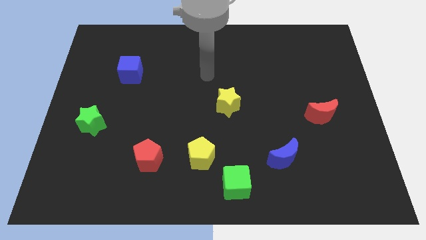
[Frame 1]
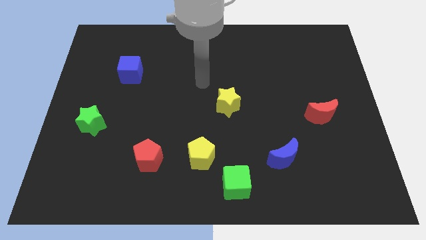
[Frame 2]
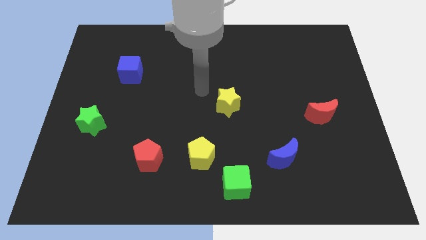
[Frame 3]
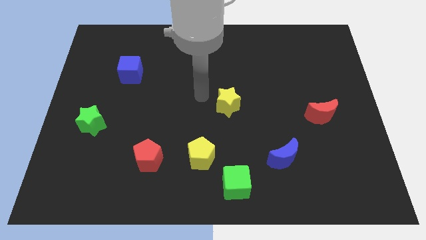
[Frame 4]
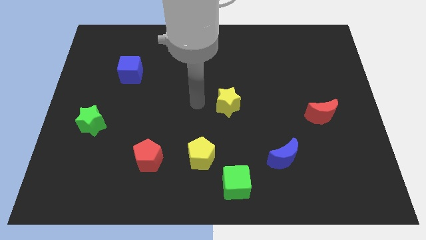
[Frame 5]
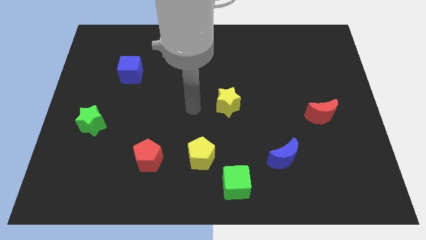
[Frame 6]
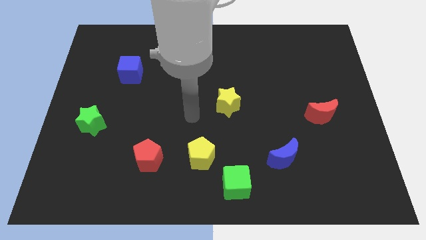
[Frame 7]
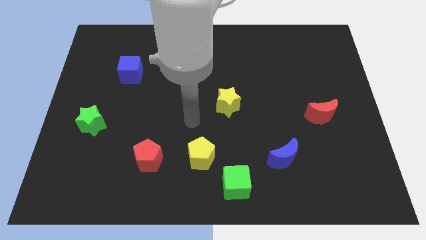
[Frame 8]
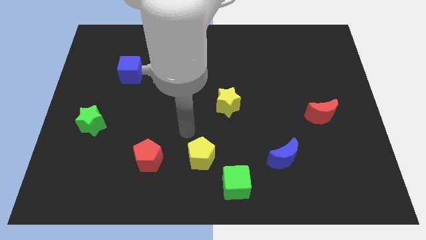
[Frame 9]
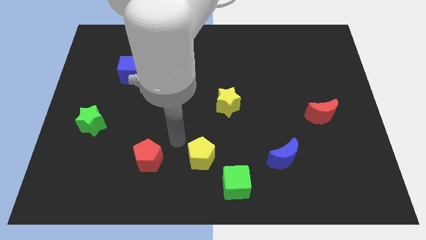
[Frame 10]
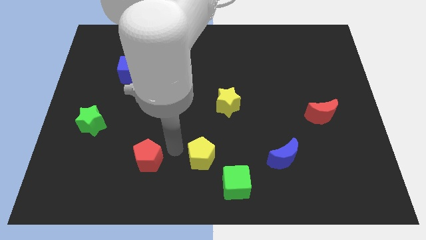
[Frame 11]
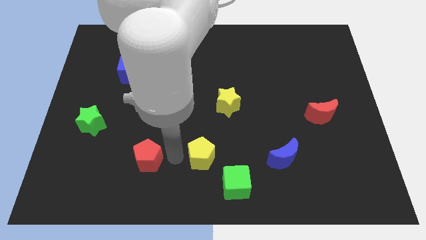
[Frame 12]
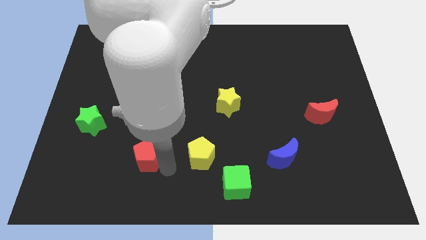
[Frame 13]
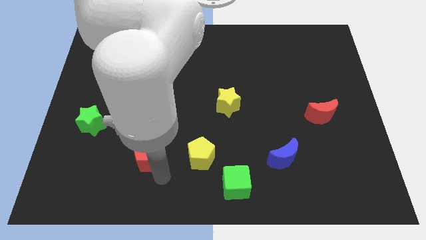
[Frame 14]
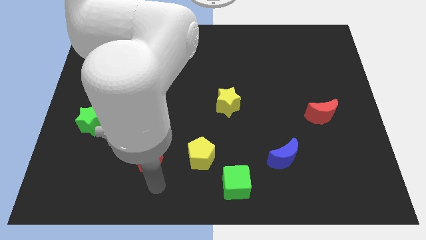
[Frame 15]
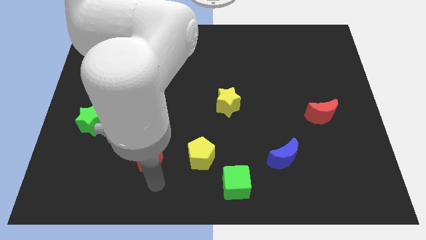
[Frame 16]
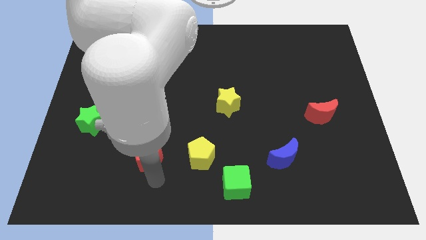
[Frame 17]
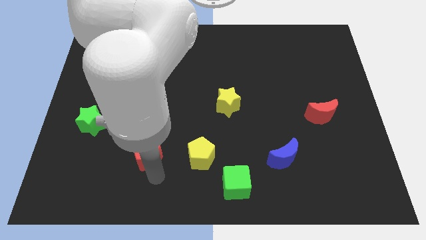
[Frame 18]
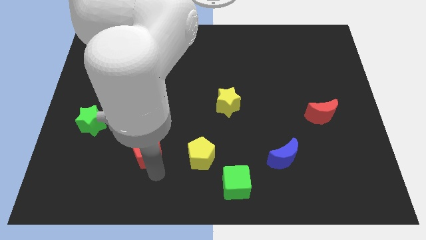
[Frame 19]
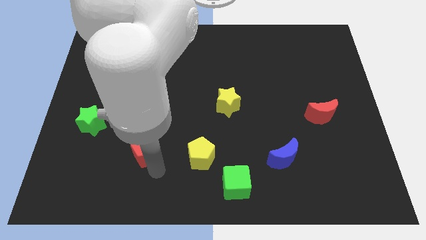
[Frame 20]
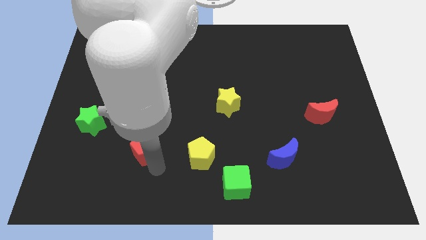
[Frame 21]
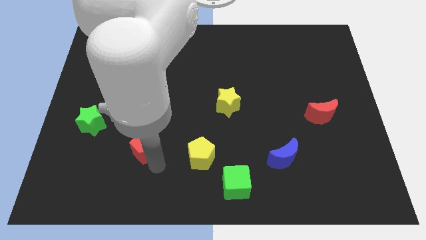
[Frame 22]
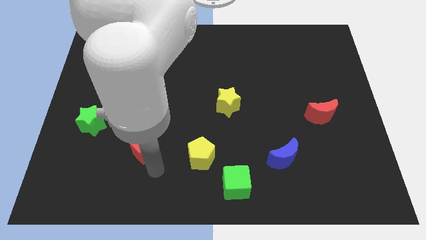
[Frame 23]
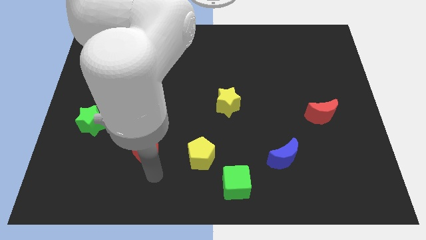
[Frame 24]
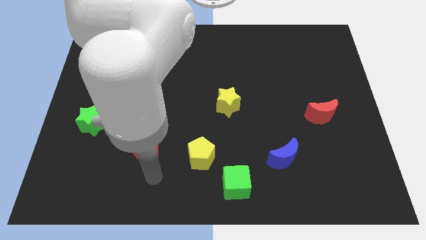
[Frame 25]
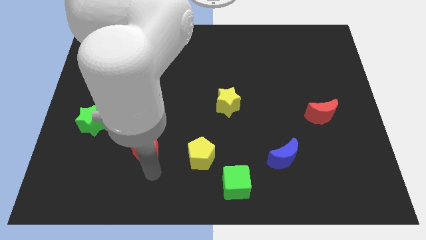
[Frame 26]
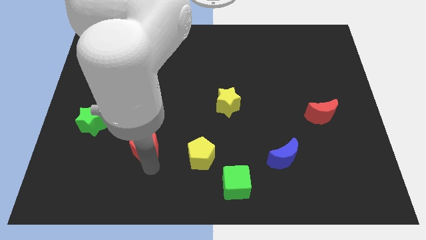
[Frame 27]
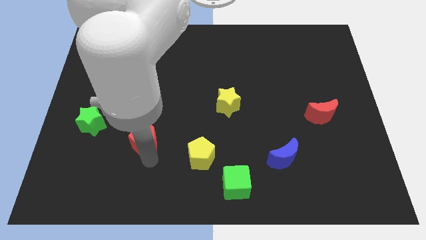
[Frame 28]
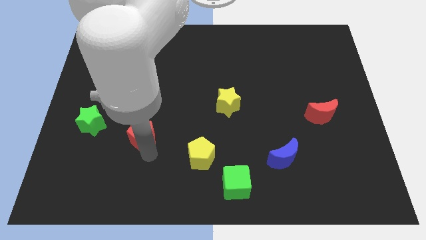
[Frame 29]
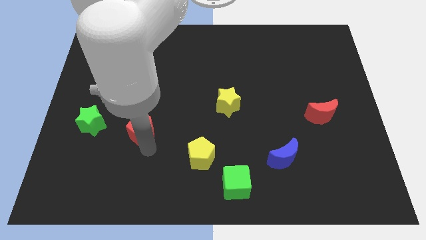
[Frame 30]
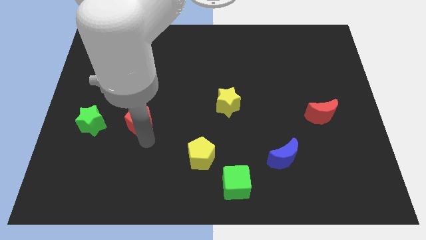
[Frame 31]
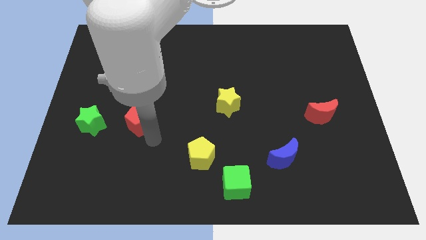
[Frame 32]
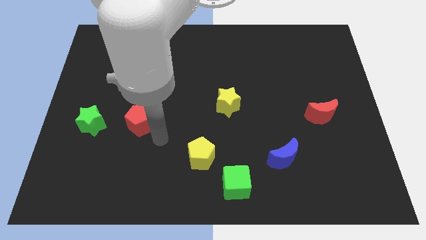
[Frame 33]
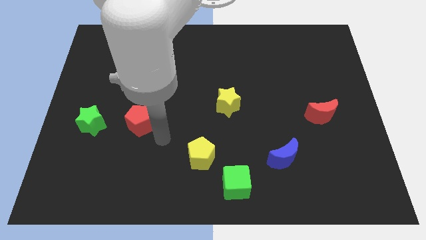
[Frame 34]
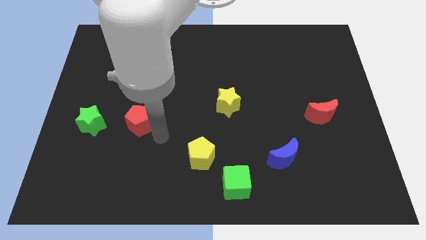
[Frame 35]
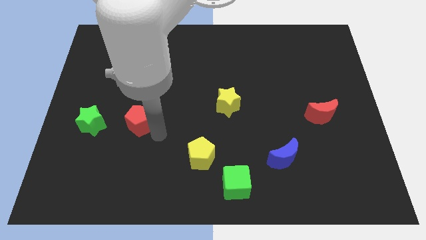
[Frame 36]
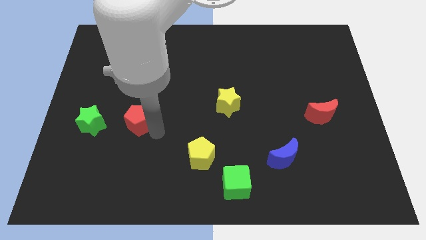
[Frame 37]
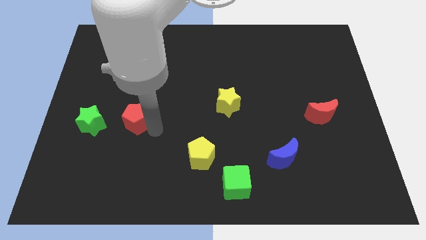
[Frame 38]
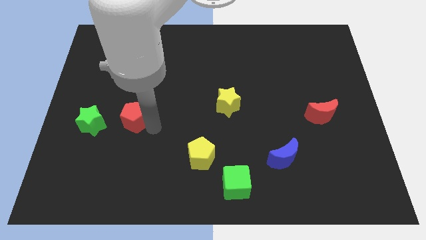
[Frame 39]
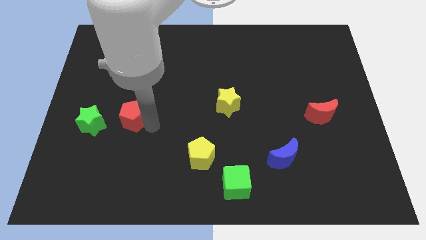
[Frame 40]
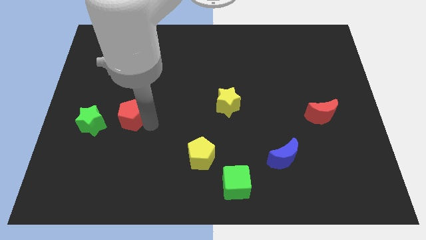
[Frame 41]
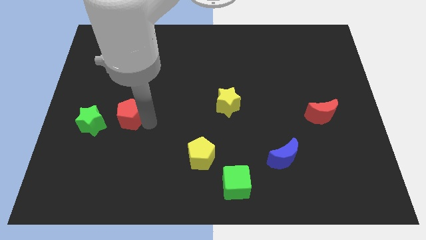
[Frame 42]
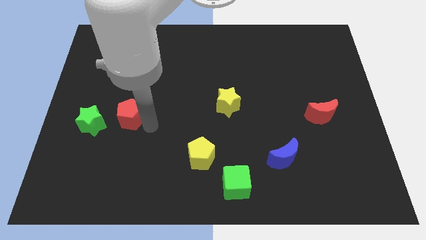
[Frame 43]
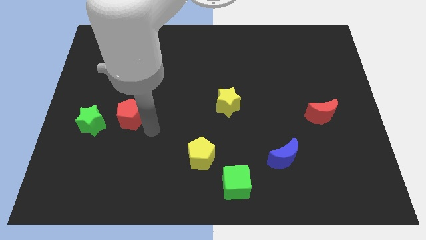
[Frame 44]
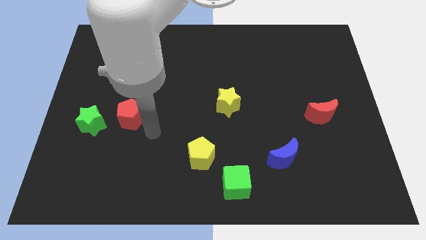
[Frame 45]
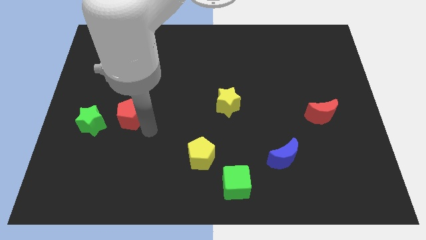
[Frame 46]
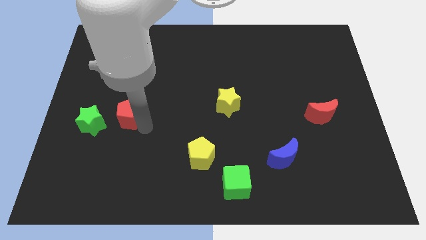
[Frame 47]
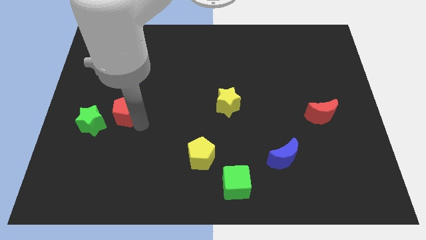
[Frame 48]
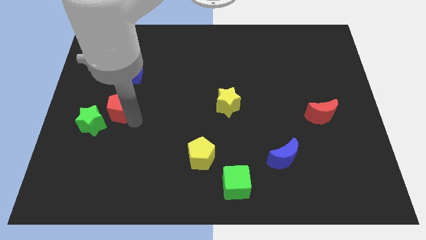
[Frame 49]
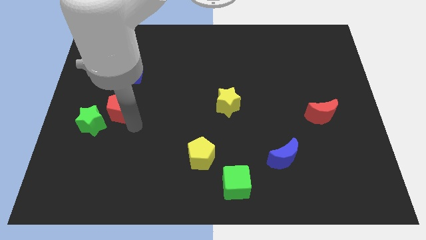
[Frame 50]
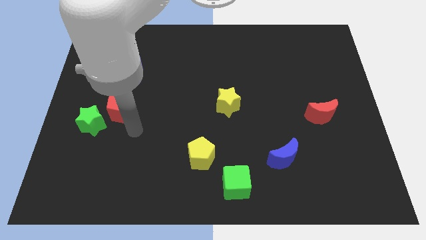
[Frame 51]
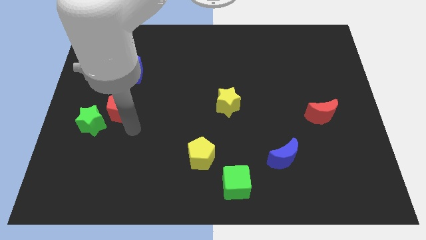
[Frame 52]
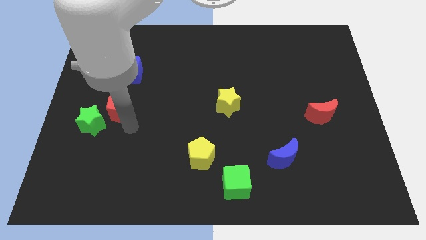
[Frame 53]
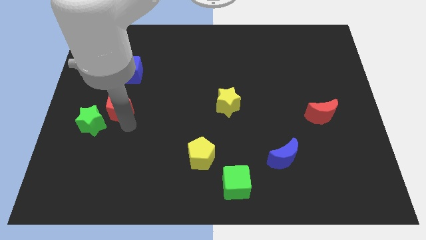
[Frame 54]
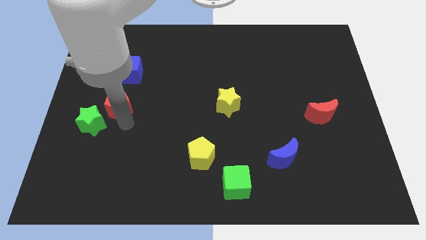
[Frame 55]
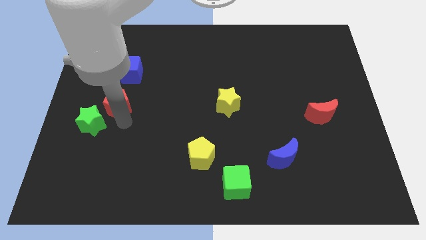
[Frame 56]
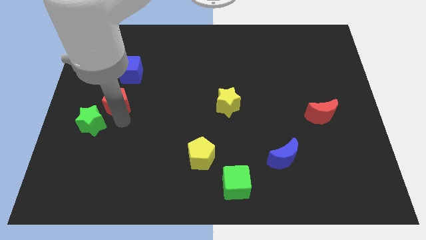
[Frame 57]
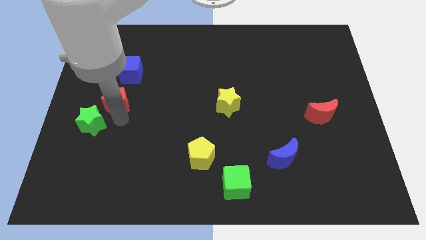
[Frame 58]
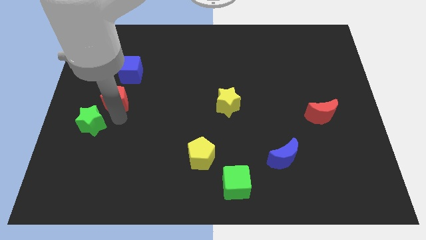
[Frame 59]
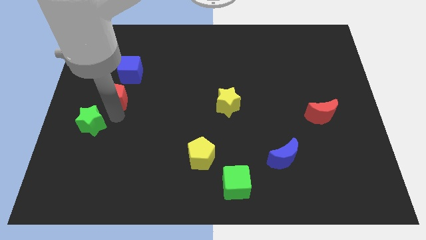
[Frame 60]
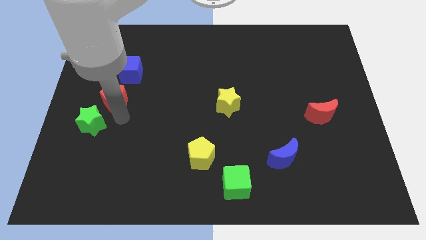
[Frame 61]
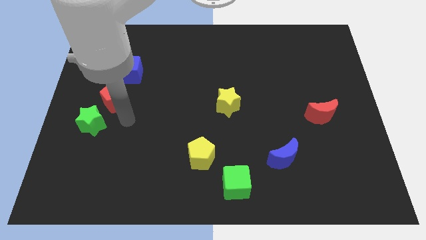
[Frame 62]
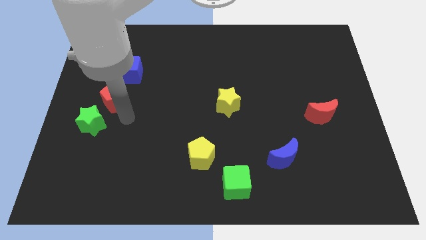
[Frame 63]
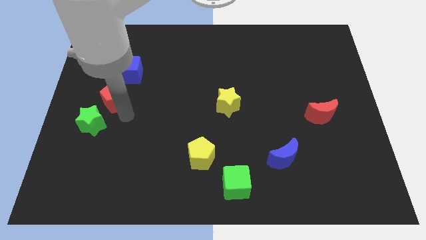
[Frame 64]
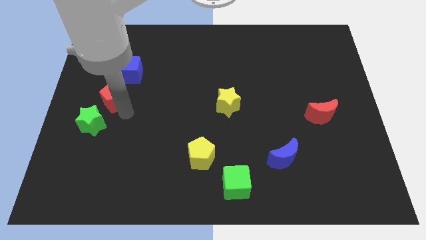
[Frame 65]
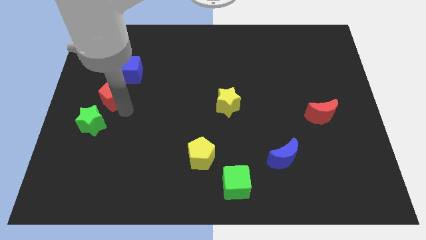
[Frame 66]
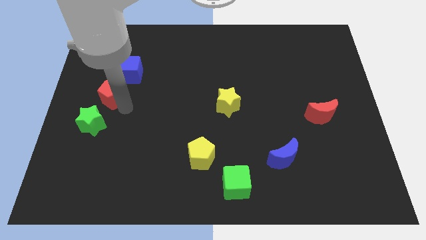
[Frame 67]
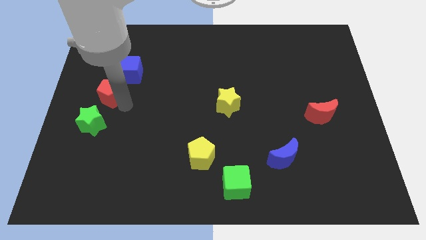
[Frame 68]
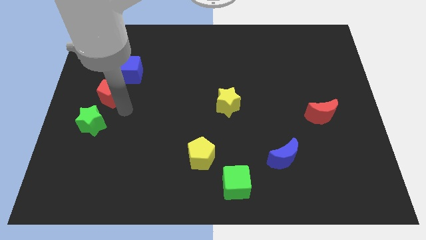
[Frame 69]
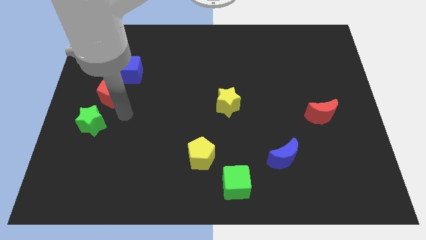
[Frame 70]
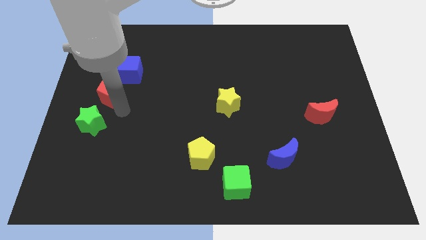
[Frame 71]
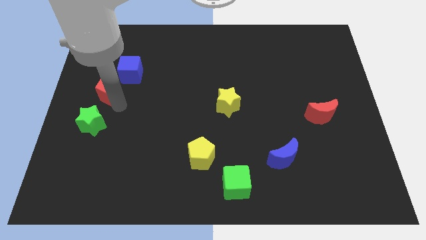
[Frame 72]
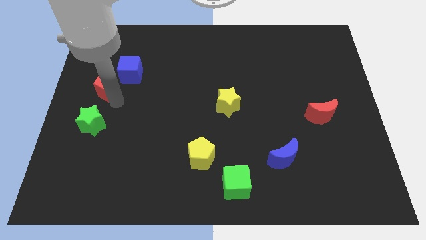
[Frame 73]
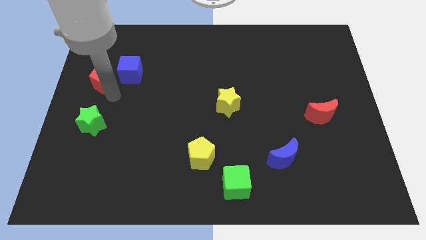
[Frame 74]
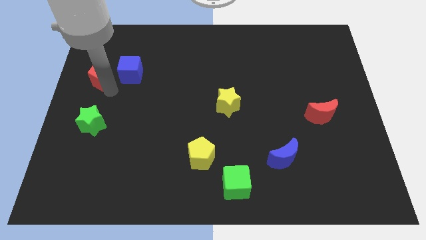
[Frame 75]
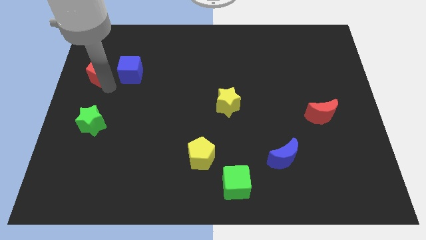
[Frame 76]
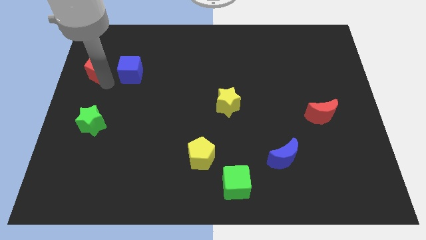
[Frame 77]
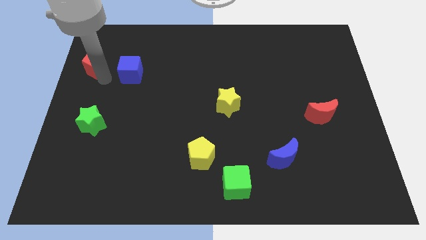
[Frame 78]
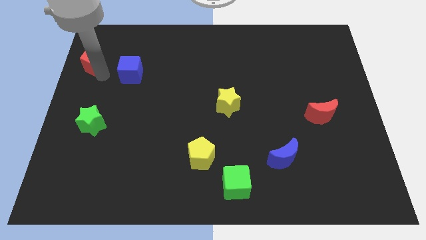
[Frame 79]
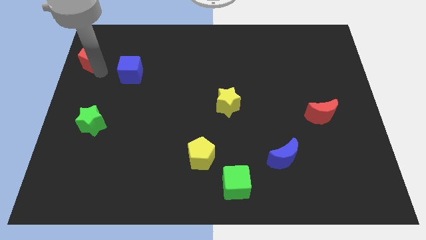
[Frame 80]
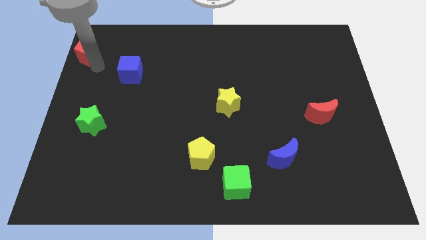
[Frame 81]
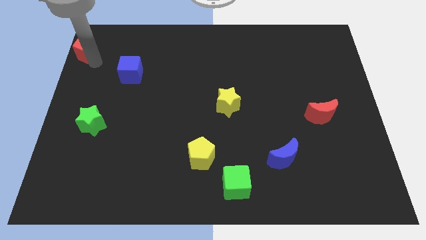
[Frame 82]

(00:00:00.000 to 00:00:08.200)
put the red pentagon to the top left corner
